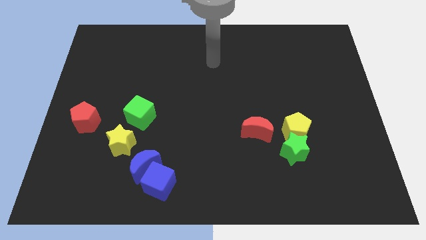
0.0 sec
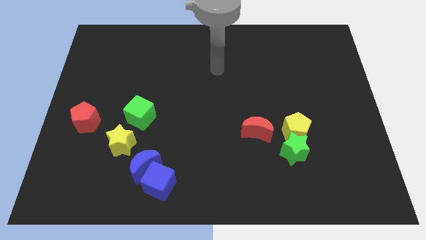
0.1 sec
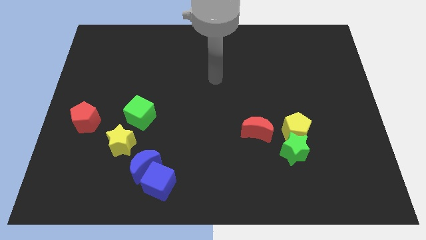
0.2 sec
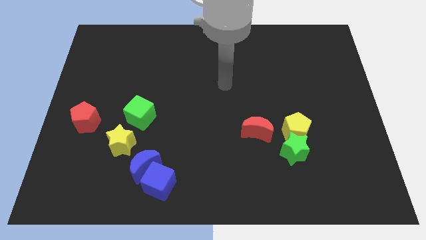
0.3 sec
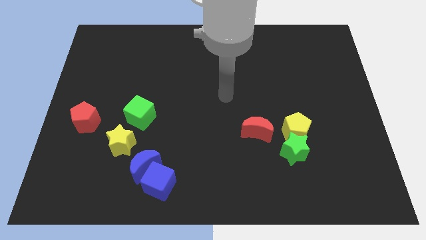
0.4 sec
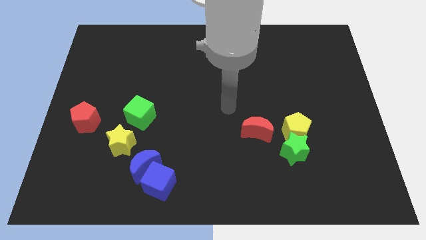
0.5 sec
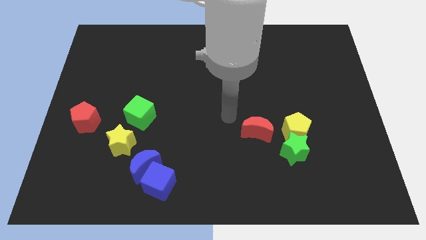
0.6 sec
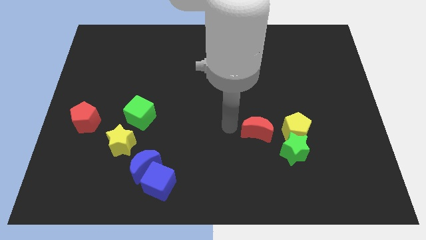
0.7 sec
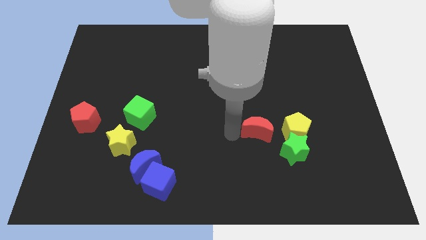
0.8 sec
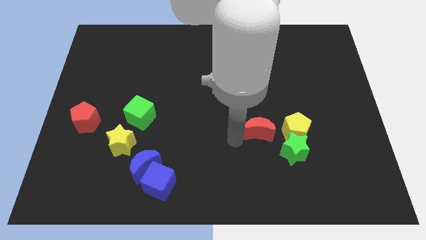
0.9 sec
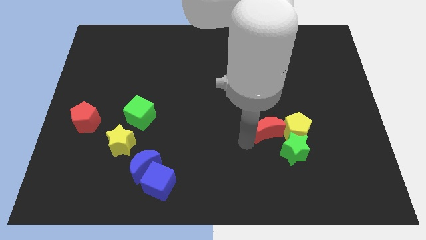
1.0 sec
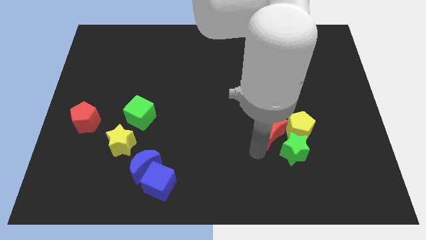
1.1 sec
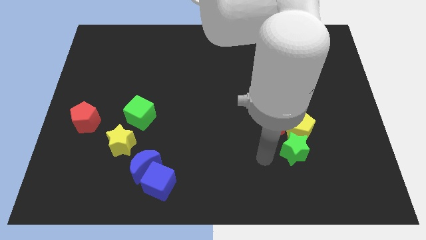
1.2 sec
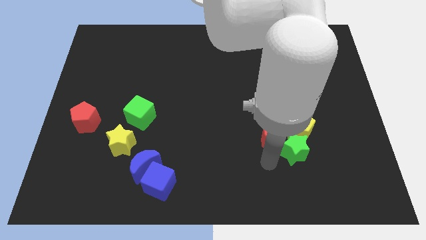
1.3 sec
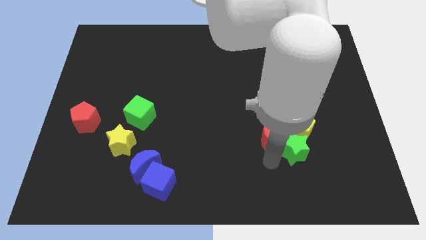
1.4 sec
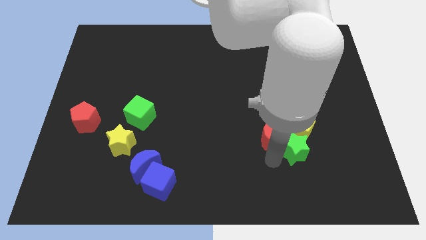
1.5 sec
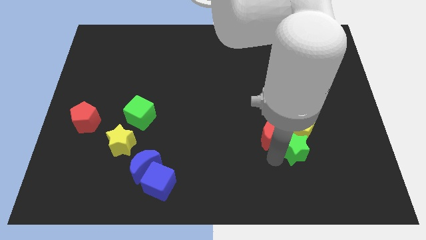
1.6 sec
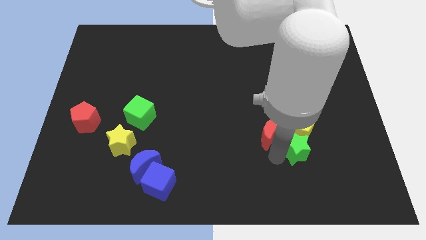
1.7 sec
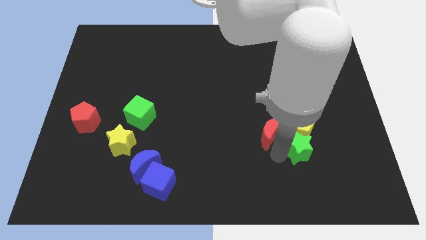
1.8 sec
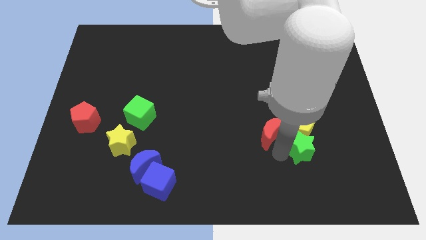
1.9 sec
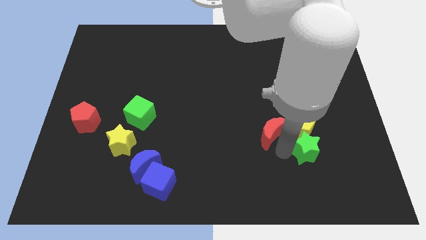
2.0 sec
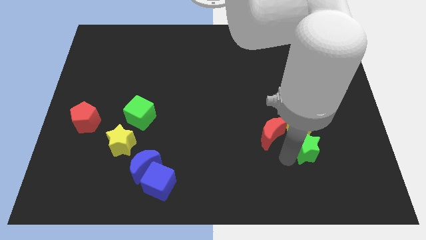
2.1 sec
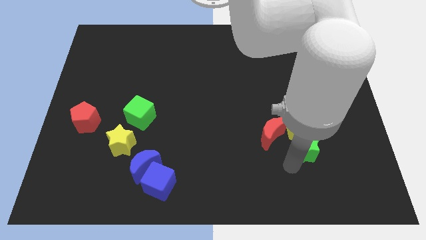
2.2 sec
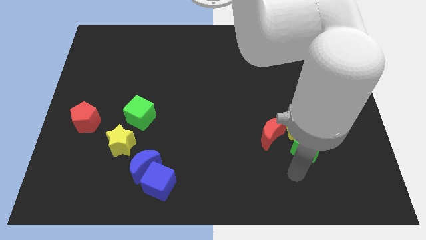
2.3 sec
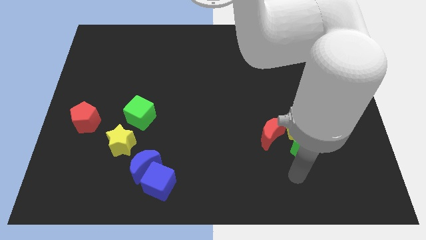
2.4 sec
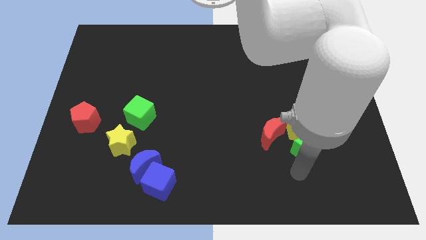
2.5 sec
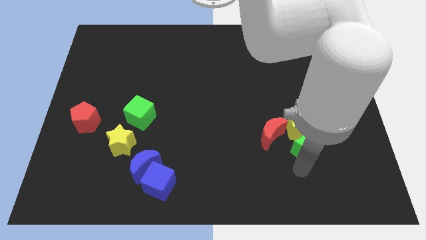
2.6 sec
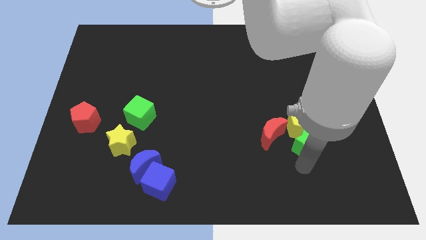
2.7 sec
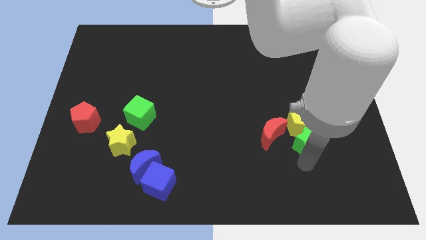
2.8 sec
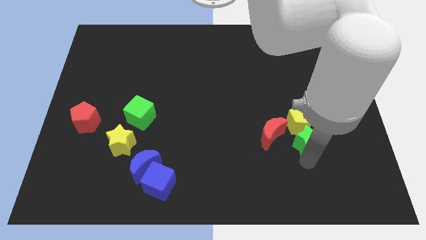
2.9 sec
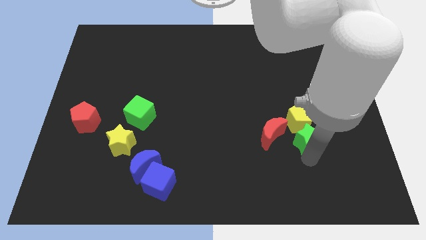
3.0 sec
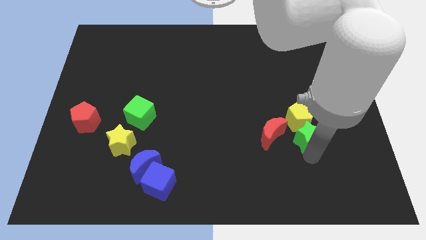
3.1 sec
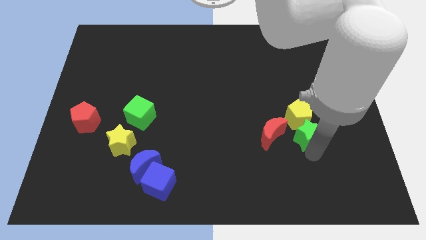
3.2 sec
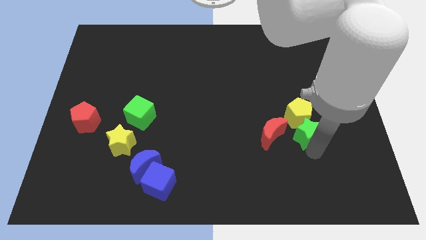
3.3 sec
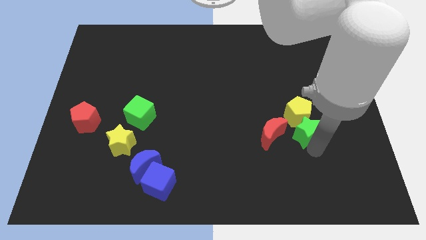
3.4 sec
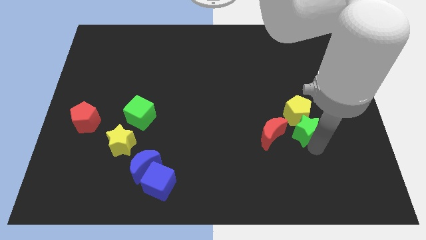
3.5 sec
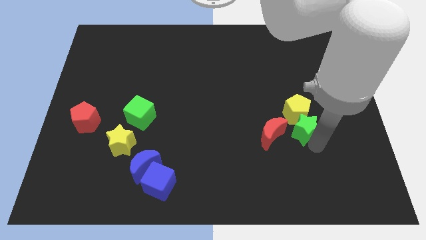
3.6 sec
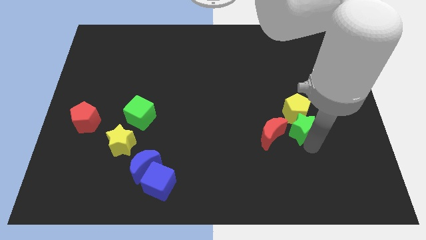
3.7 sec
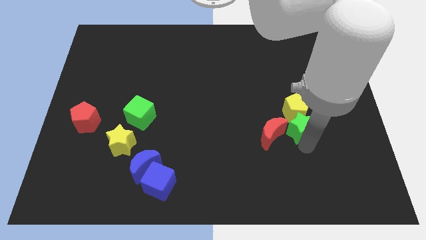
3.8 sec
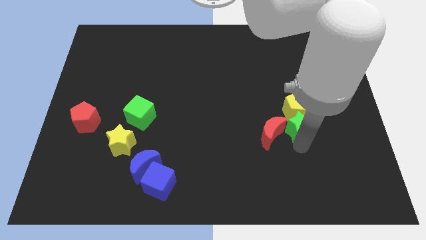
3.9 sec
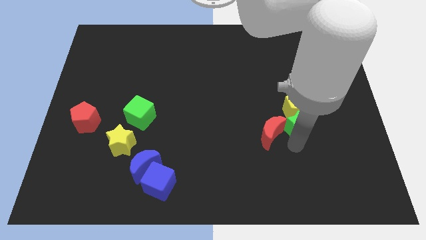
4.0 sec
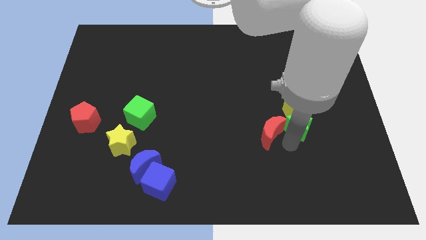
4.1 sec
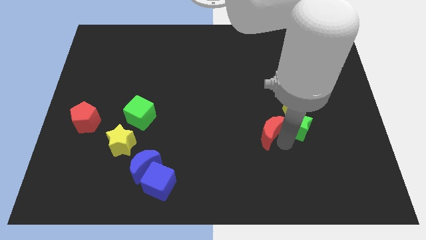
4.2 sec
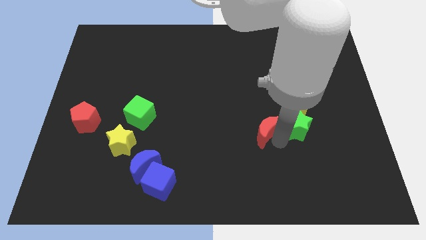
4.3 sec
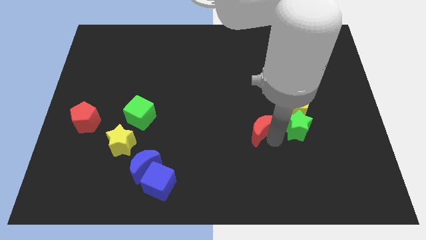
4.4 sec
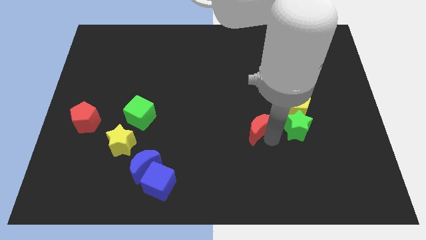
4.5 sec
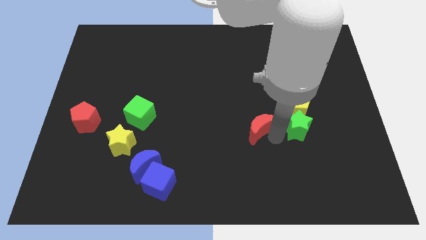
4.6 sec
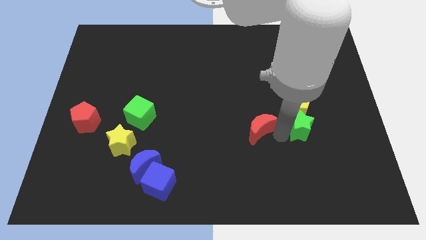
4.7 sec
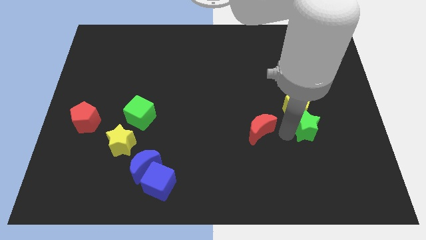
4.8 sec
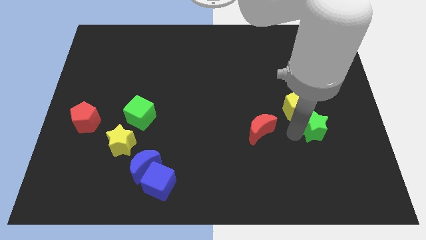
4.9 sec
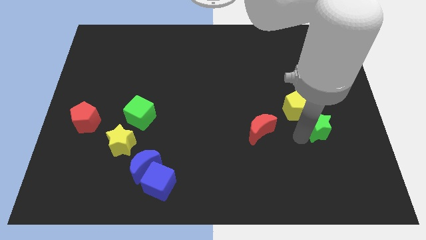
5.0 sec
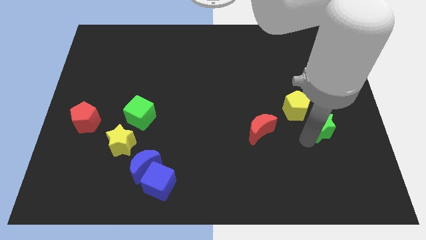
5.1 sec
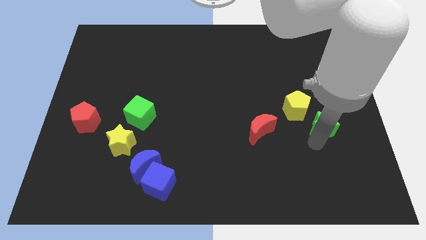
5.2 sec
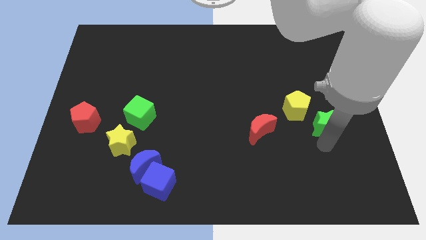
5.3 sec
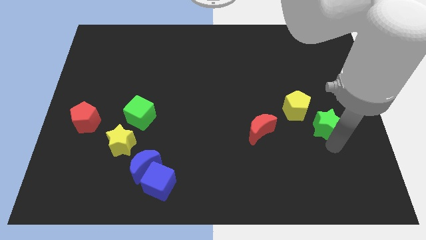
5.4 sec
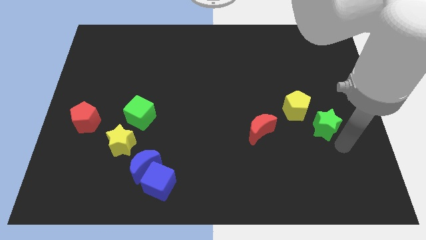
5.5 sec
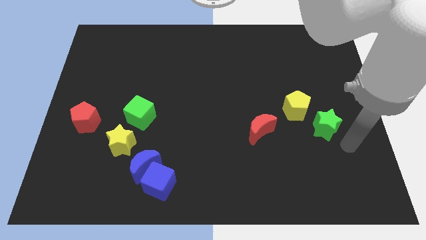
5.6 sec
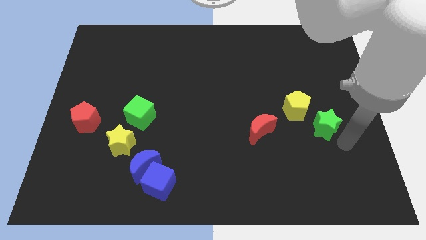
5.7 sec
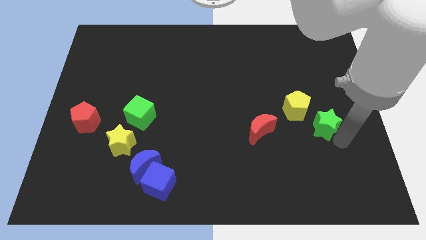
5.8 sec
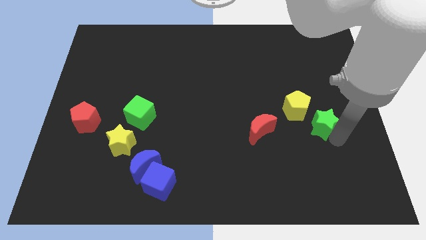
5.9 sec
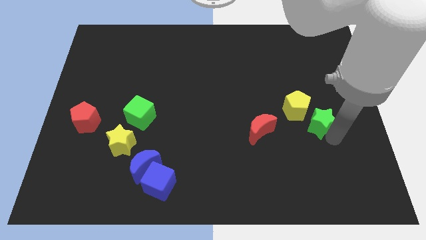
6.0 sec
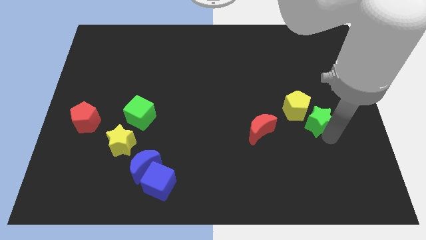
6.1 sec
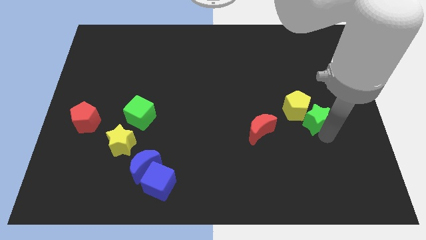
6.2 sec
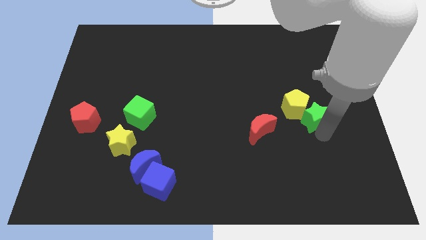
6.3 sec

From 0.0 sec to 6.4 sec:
slightly slide the green star up

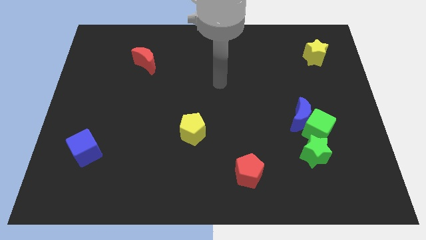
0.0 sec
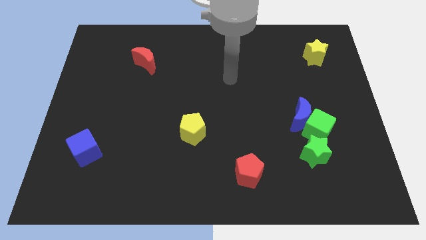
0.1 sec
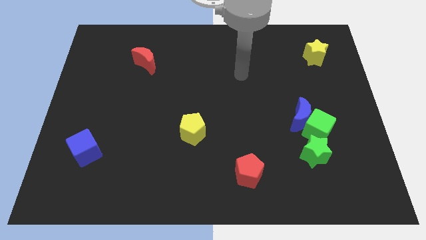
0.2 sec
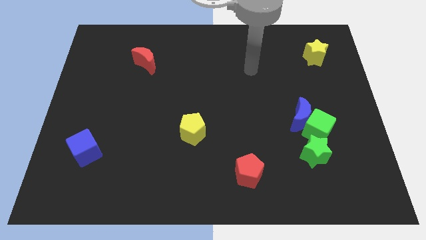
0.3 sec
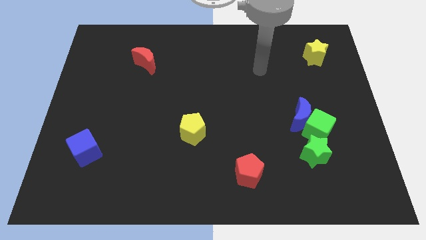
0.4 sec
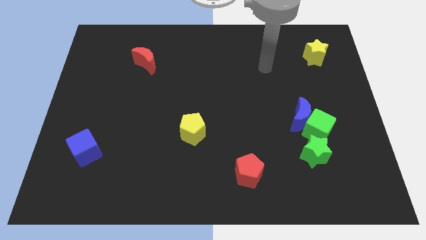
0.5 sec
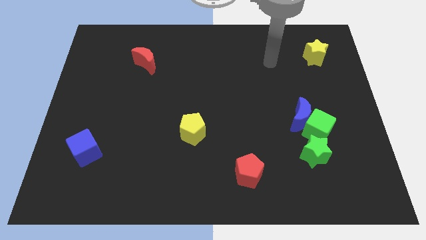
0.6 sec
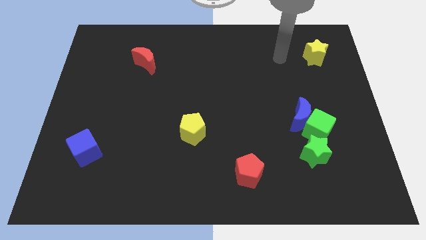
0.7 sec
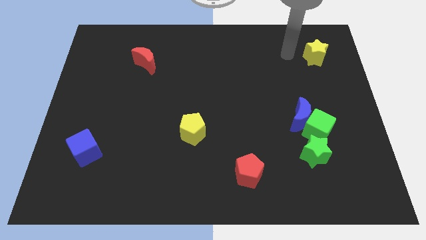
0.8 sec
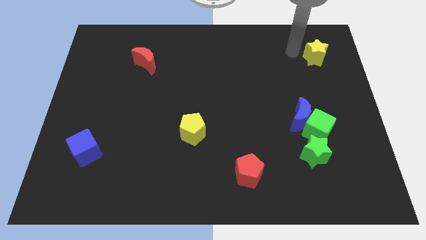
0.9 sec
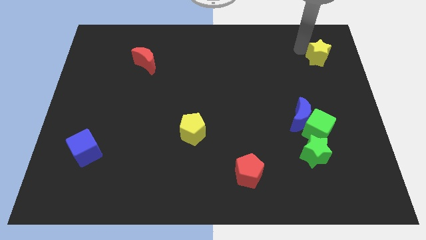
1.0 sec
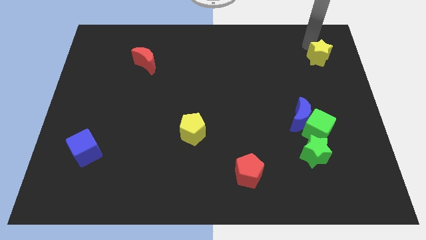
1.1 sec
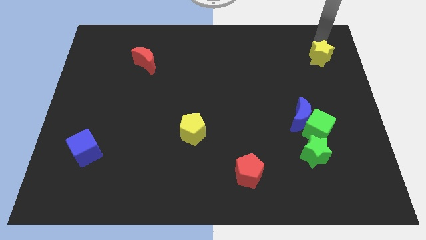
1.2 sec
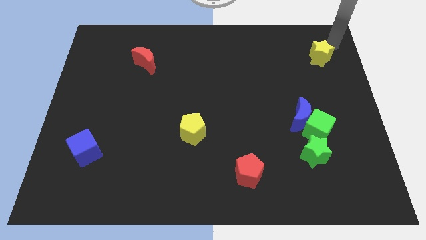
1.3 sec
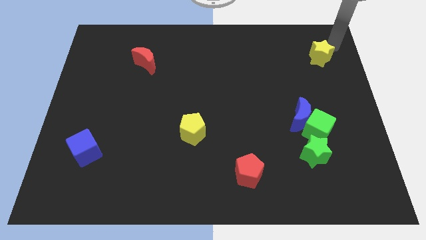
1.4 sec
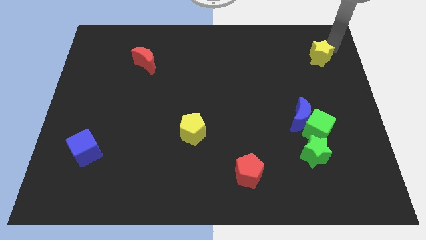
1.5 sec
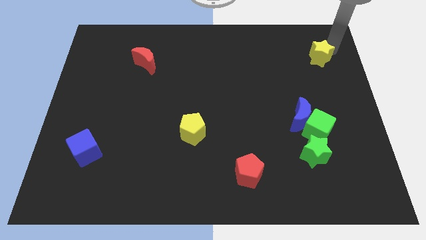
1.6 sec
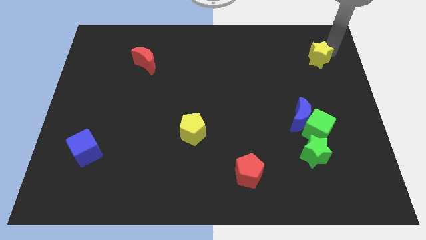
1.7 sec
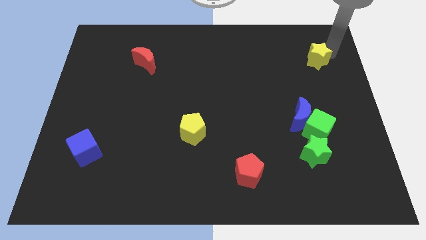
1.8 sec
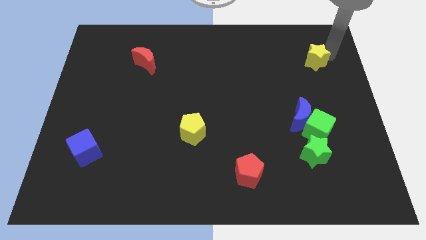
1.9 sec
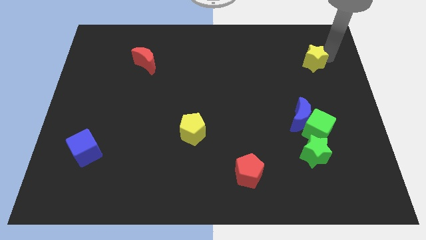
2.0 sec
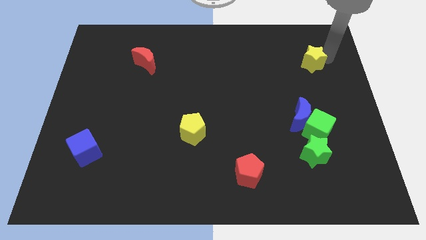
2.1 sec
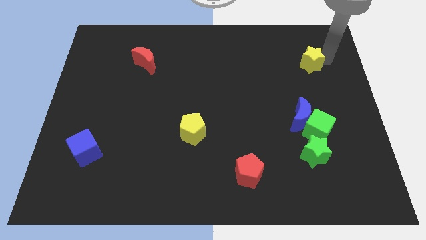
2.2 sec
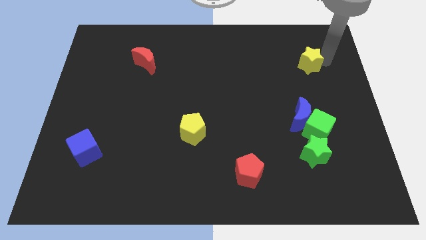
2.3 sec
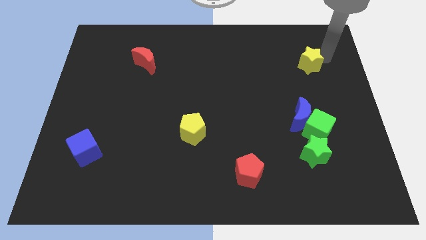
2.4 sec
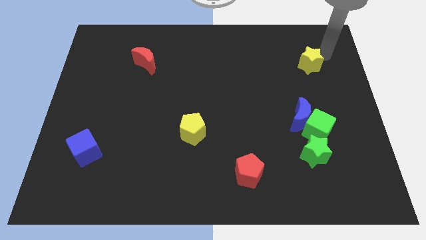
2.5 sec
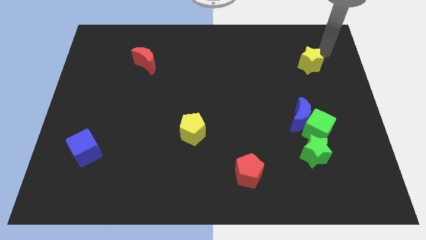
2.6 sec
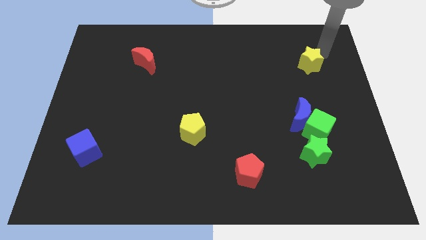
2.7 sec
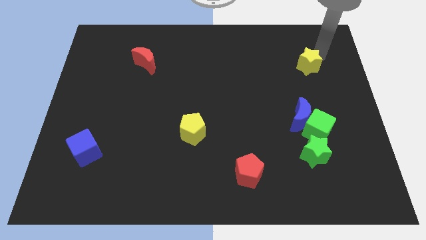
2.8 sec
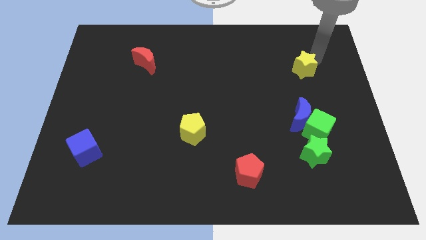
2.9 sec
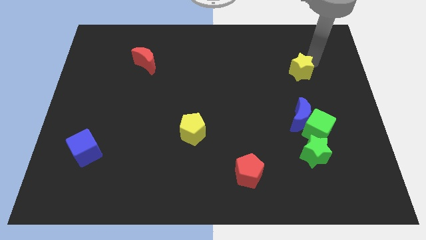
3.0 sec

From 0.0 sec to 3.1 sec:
slide the yellow star a little diagonally down and to the left
